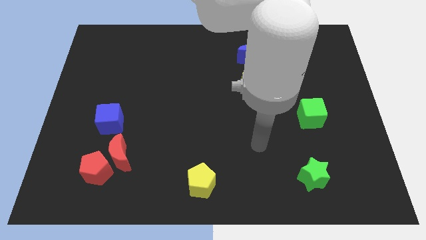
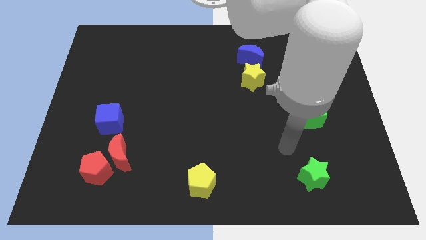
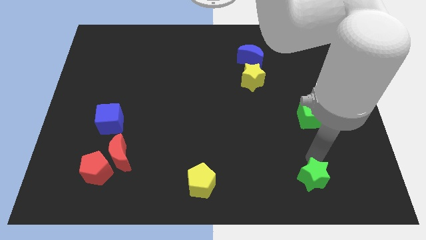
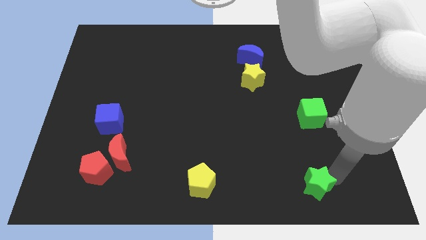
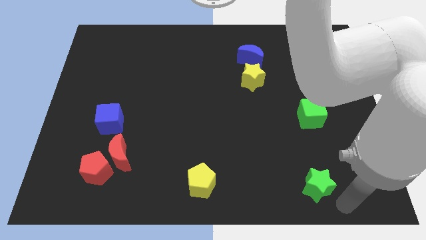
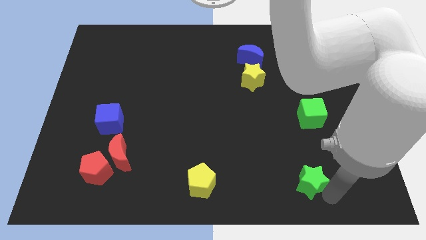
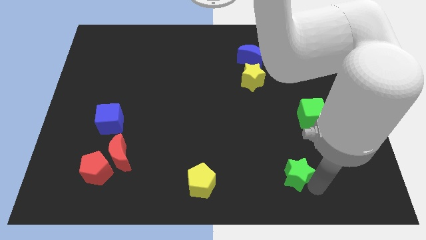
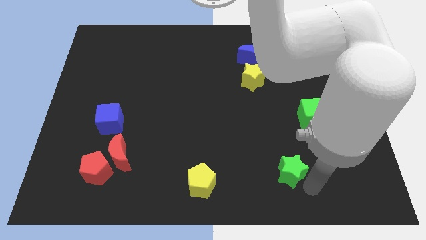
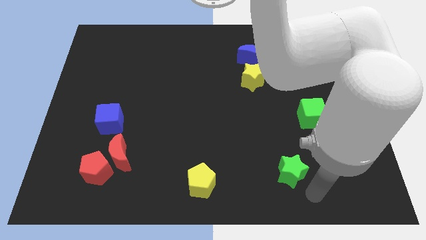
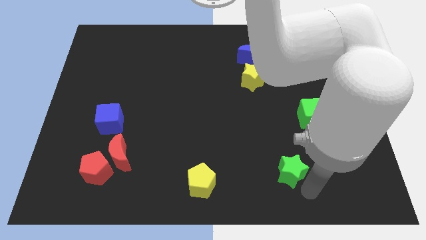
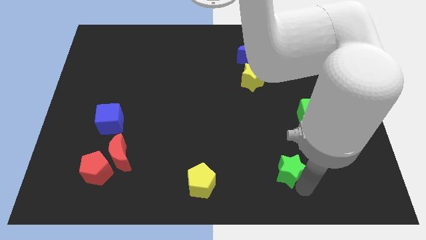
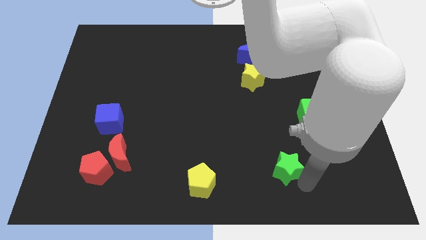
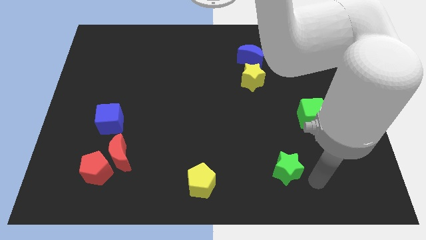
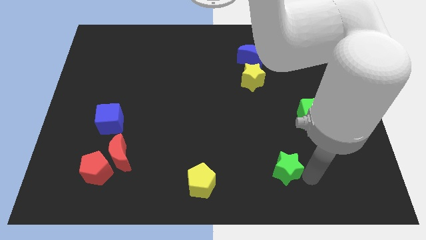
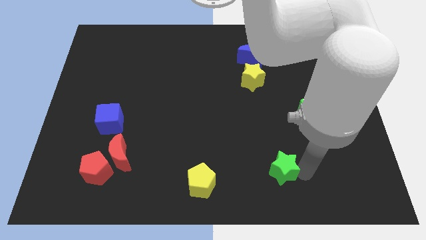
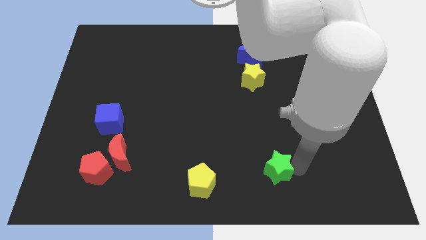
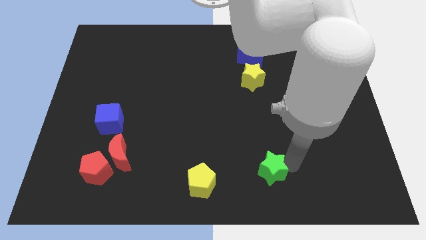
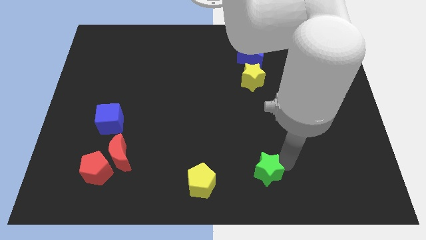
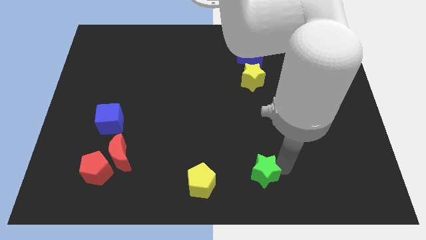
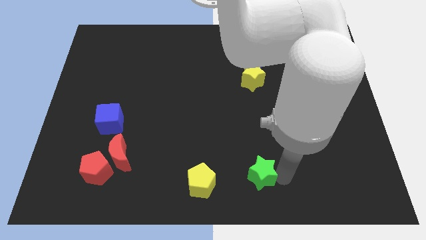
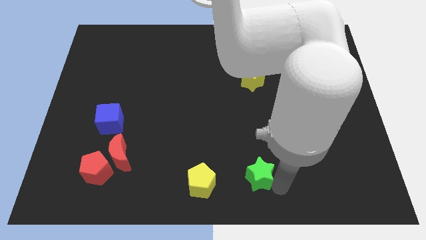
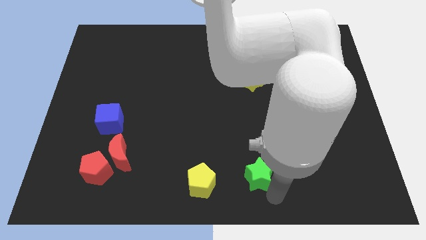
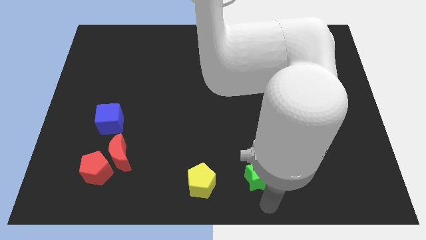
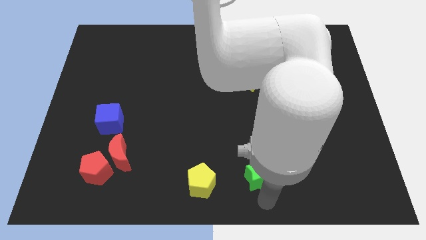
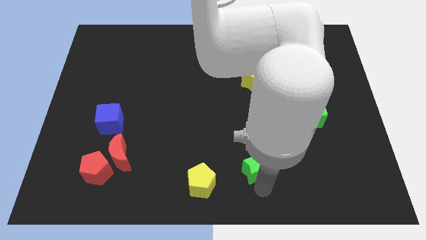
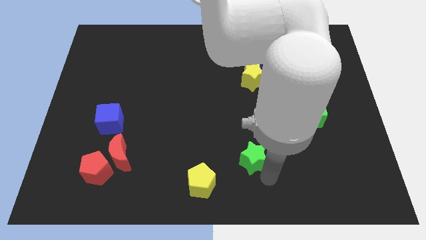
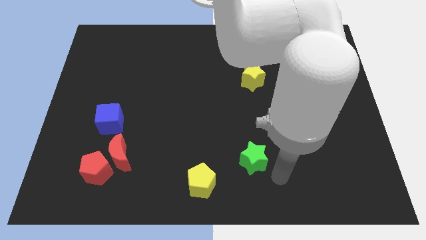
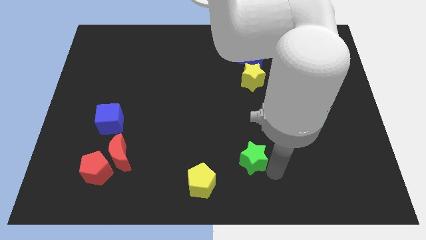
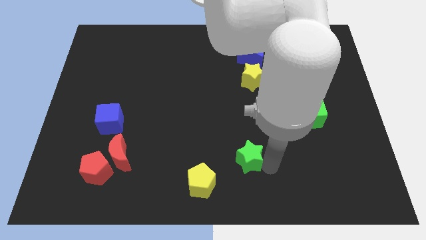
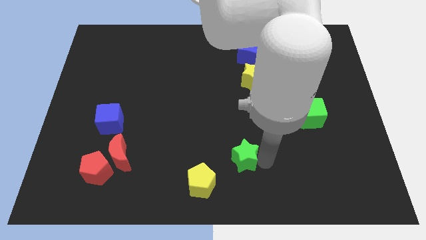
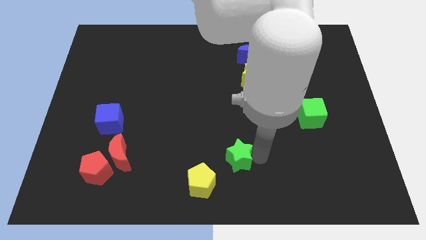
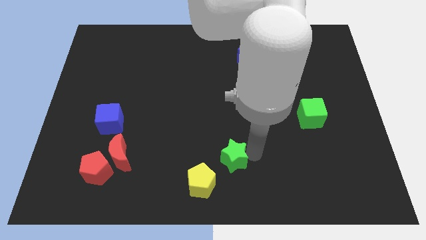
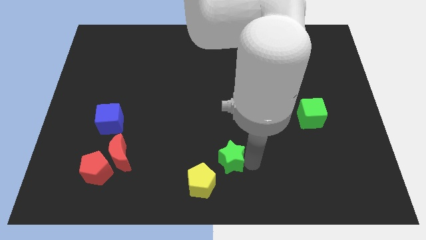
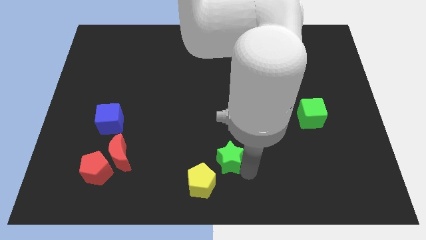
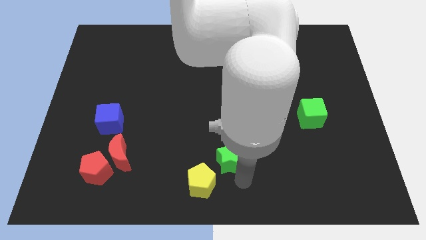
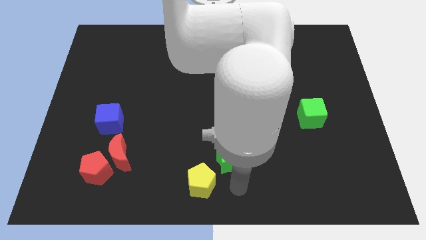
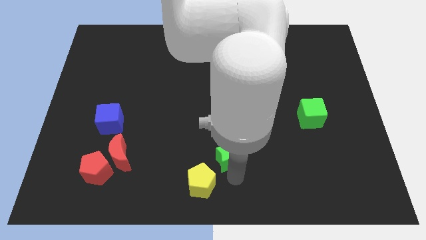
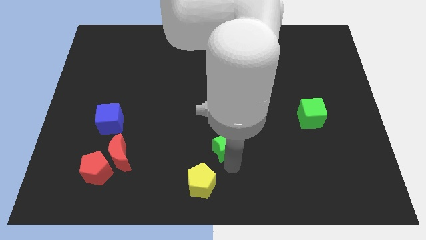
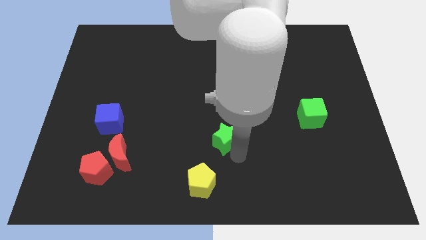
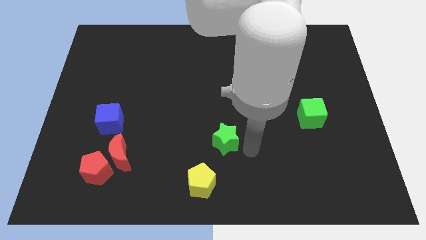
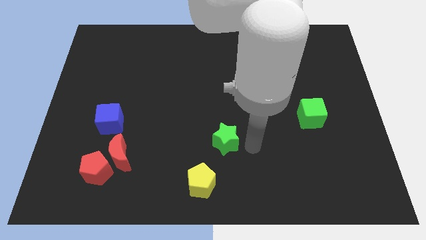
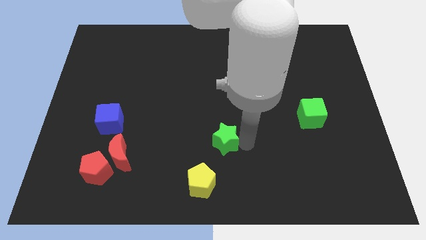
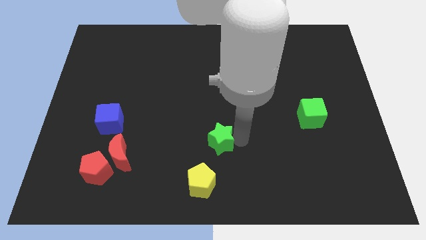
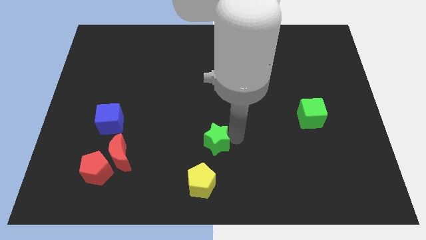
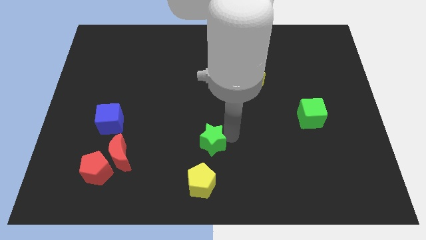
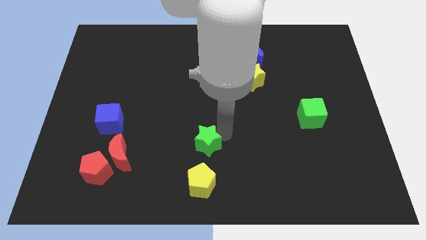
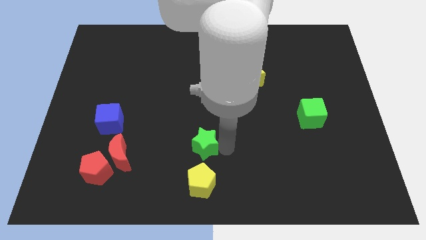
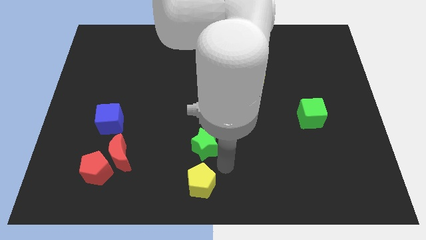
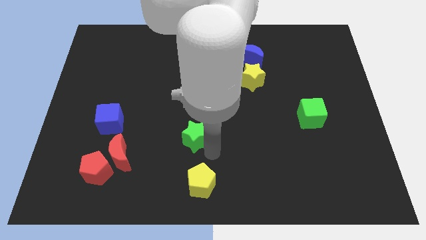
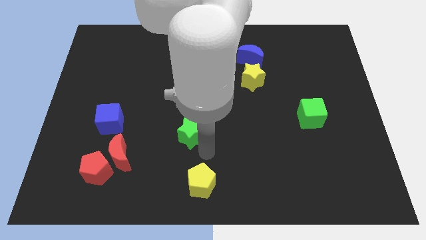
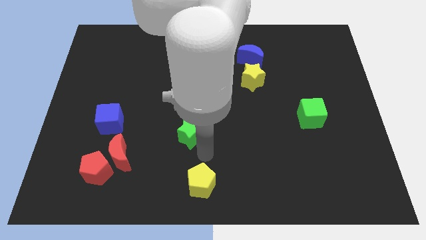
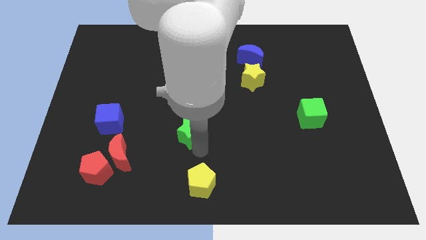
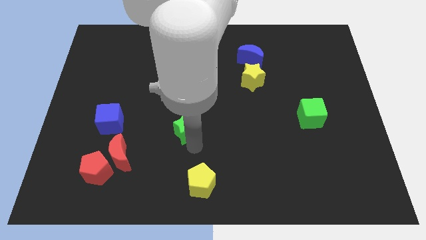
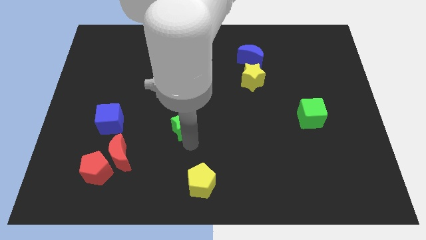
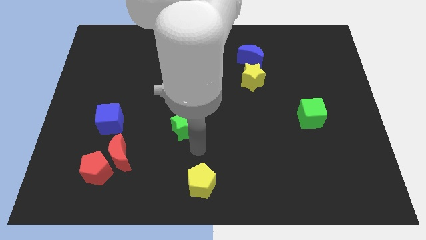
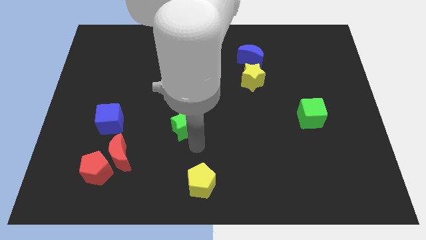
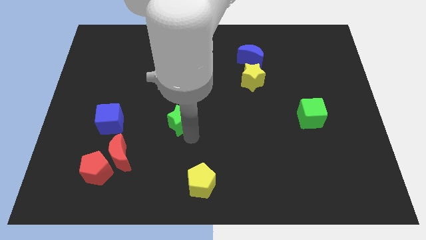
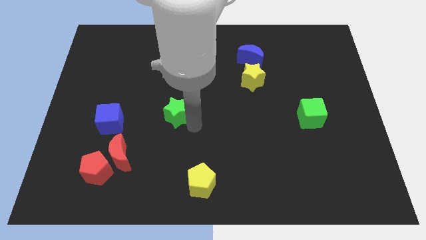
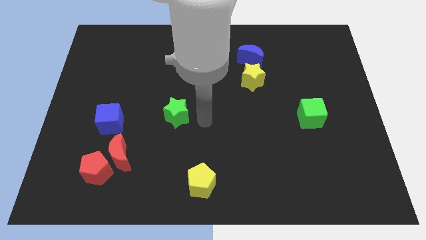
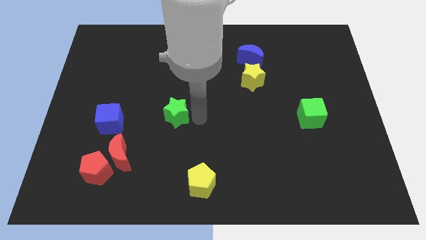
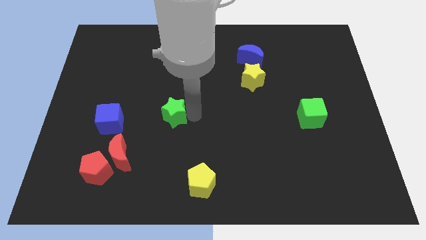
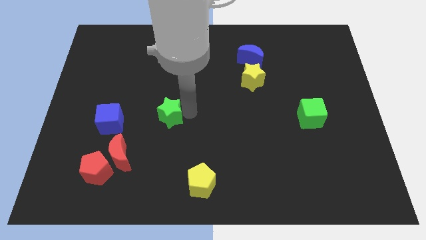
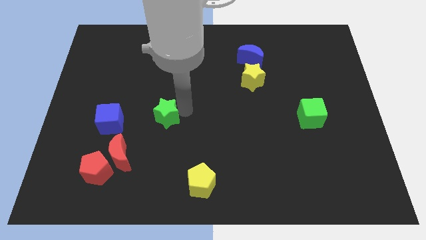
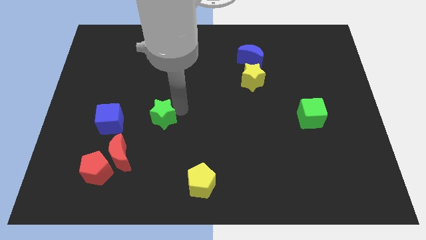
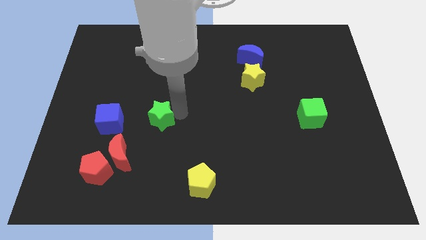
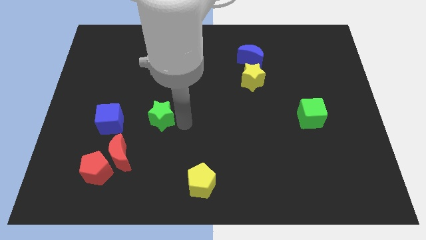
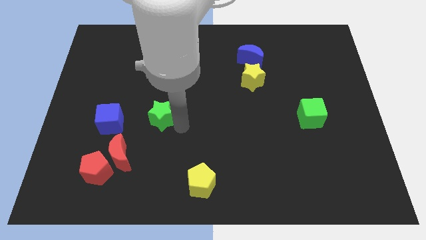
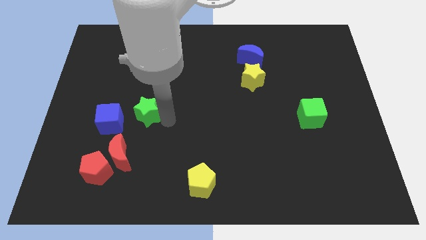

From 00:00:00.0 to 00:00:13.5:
slide the green star to the top right side of the blue cube
